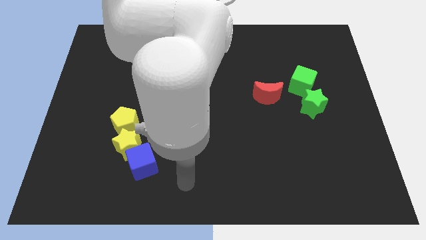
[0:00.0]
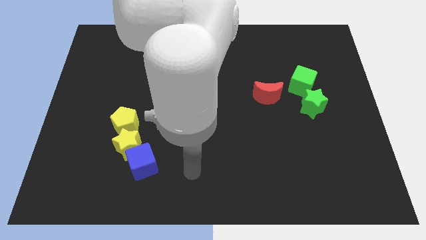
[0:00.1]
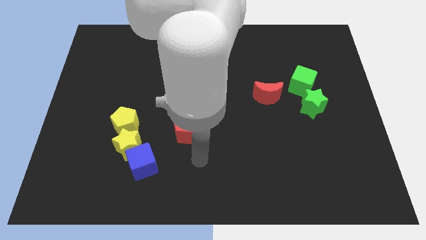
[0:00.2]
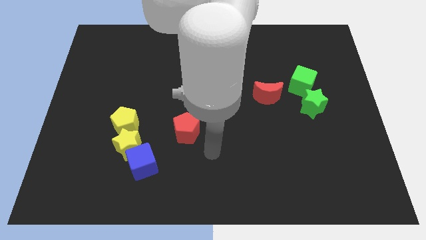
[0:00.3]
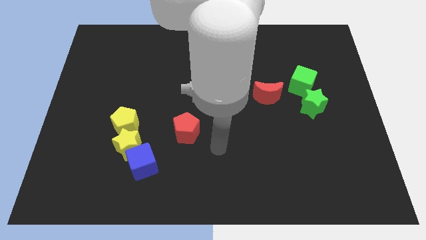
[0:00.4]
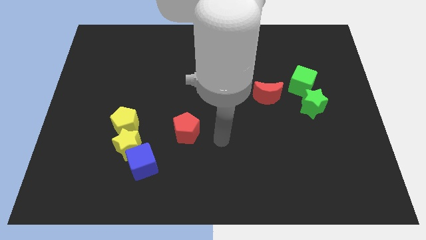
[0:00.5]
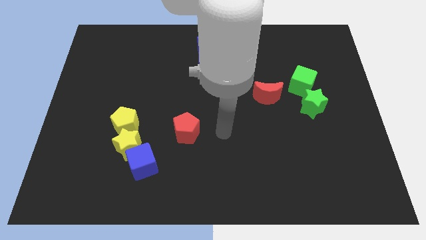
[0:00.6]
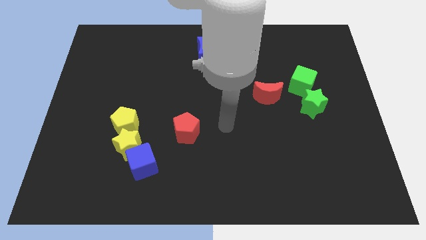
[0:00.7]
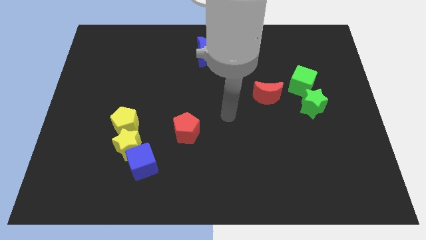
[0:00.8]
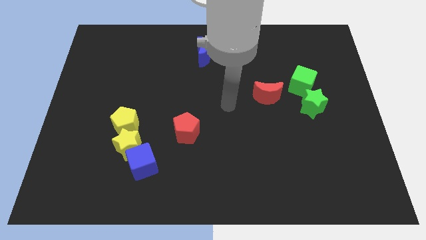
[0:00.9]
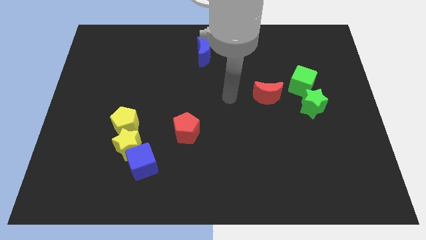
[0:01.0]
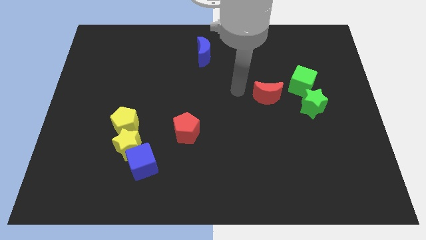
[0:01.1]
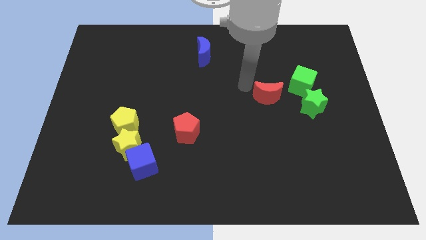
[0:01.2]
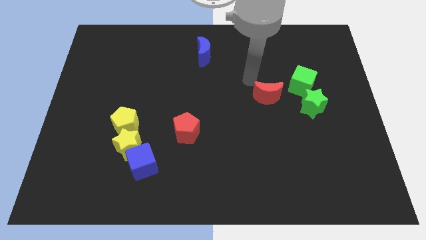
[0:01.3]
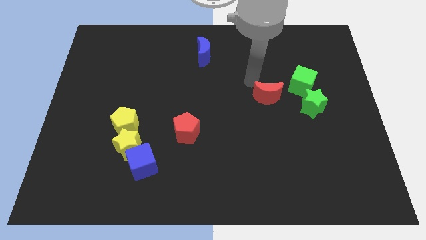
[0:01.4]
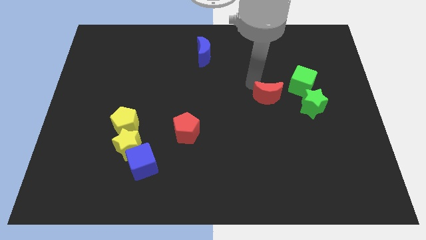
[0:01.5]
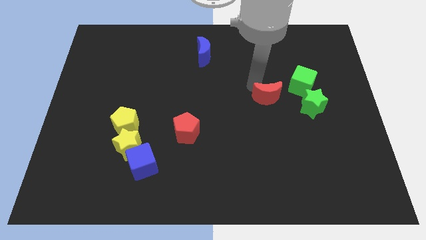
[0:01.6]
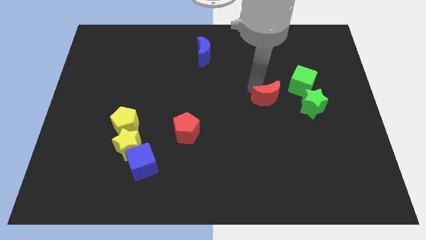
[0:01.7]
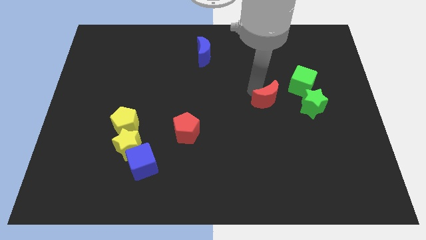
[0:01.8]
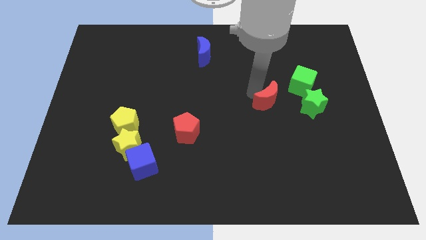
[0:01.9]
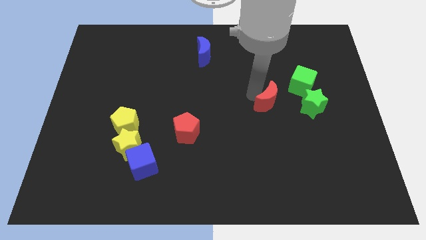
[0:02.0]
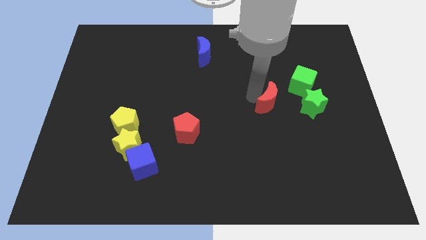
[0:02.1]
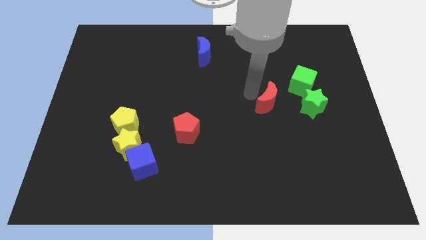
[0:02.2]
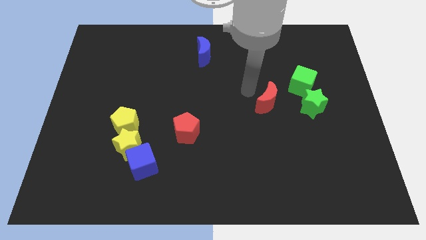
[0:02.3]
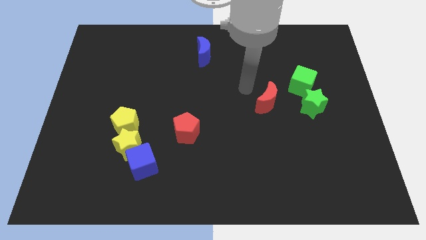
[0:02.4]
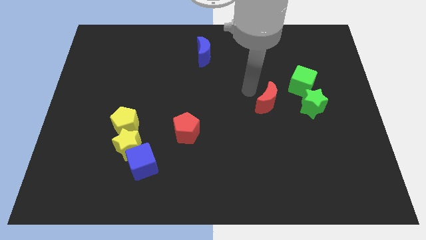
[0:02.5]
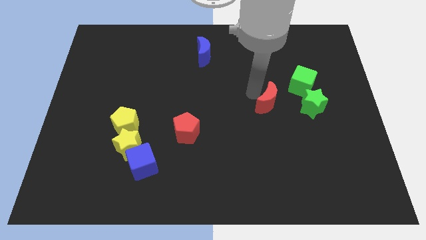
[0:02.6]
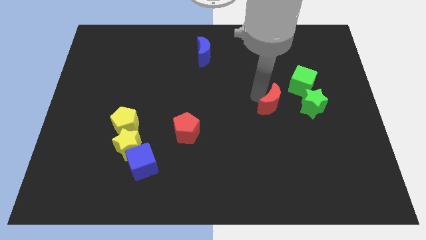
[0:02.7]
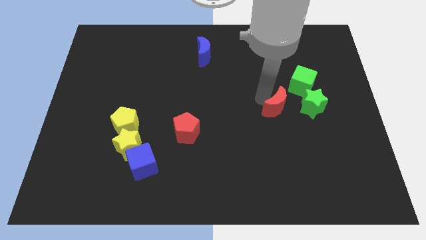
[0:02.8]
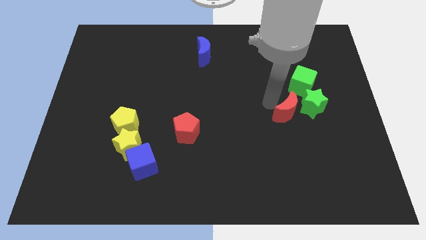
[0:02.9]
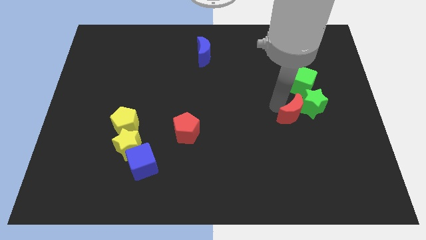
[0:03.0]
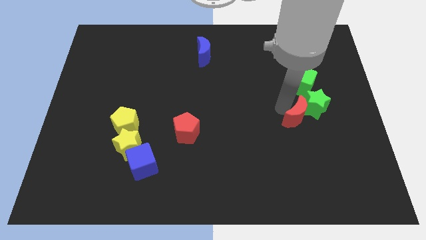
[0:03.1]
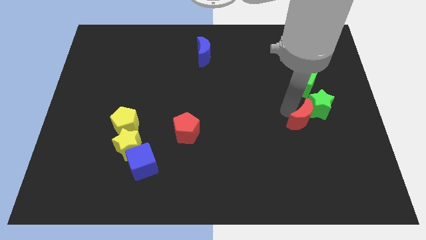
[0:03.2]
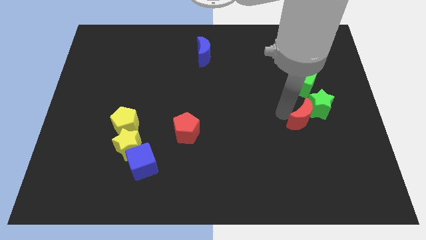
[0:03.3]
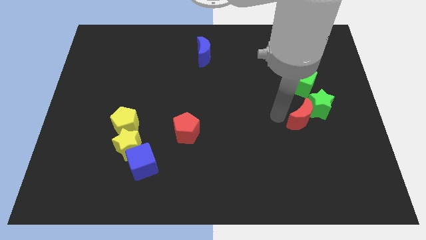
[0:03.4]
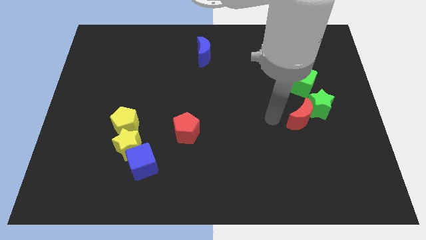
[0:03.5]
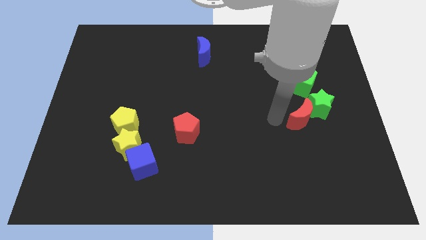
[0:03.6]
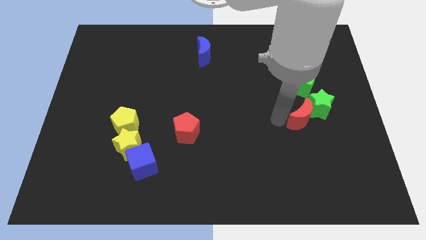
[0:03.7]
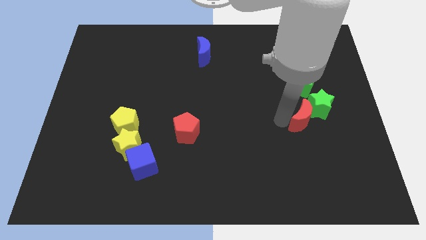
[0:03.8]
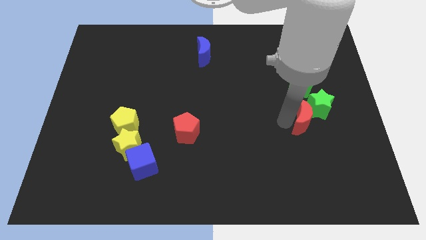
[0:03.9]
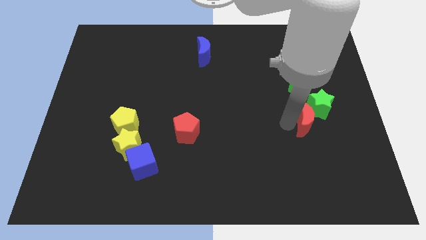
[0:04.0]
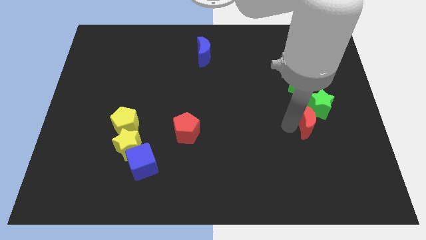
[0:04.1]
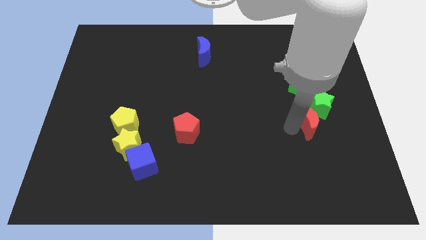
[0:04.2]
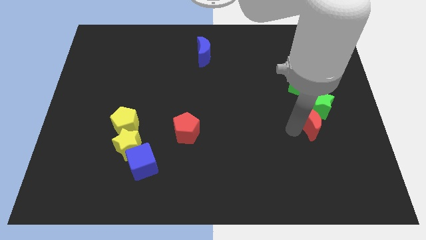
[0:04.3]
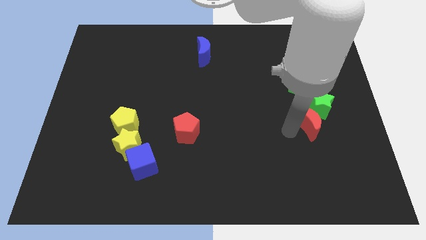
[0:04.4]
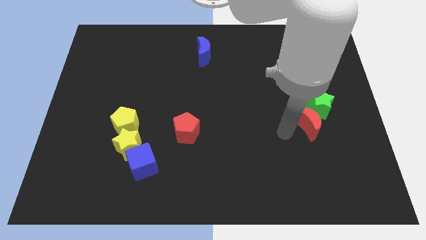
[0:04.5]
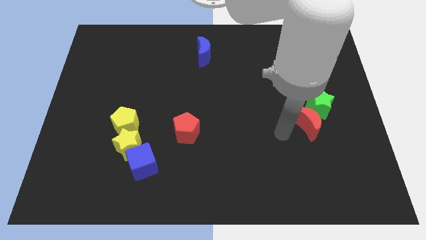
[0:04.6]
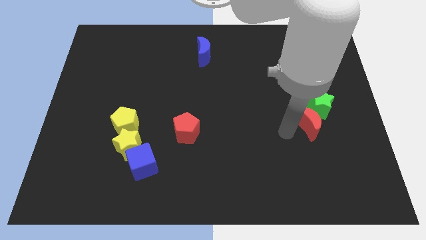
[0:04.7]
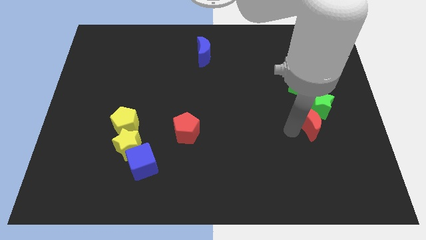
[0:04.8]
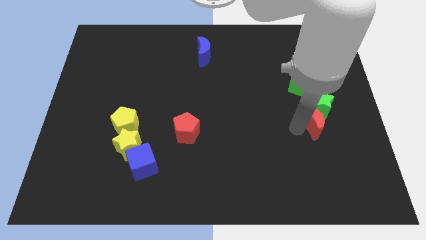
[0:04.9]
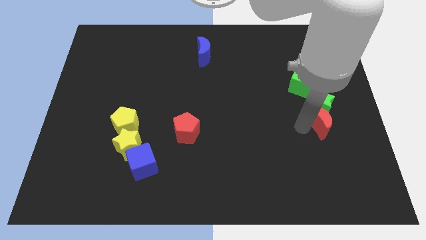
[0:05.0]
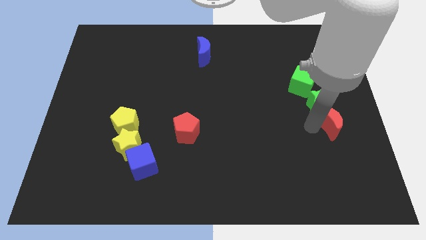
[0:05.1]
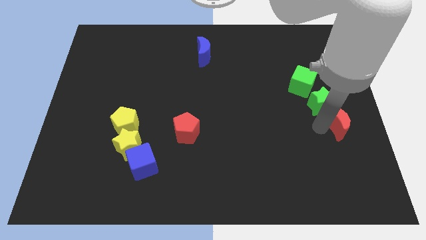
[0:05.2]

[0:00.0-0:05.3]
move the red moon to the right side

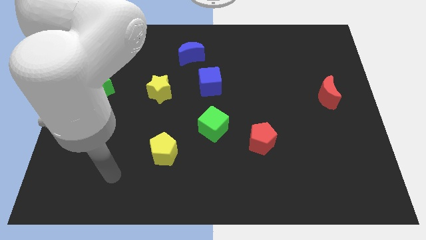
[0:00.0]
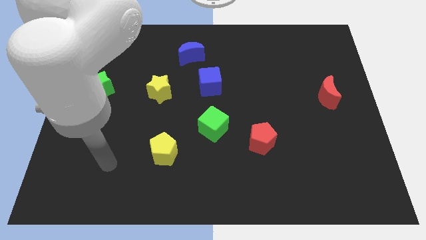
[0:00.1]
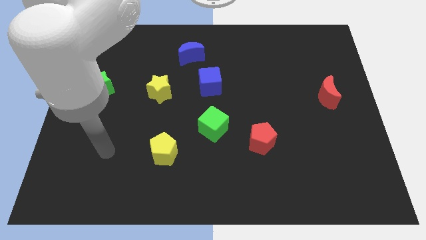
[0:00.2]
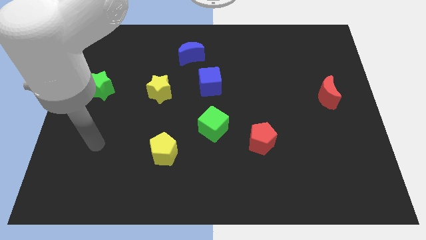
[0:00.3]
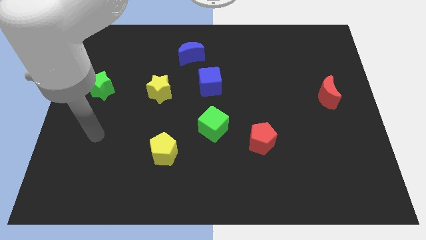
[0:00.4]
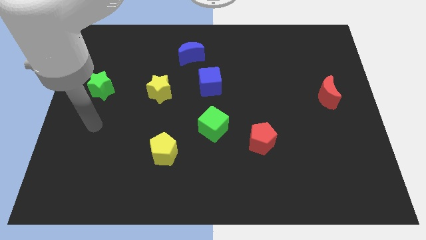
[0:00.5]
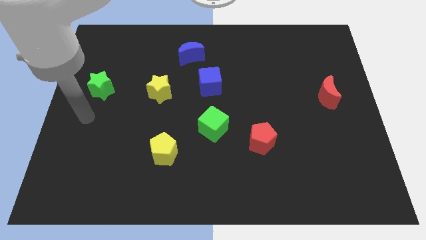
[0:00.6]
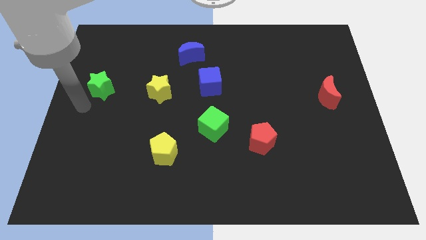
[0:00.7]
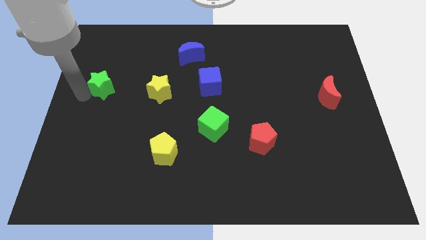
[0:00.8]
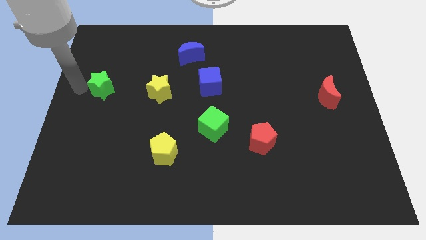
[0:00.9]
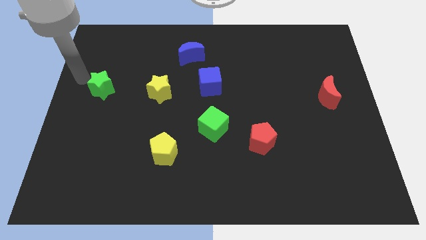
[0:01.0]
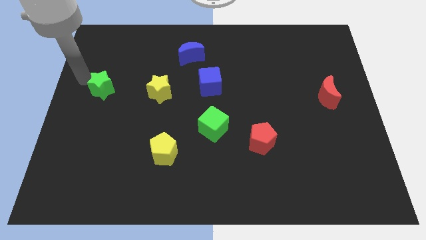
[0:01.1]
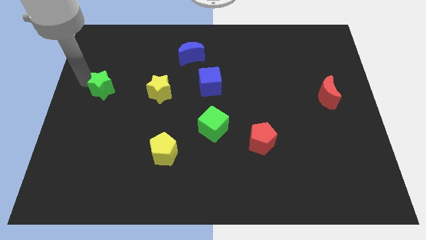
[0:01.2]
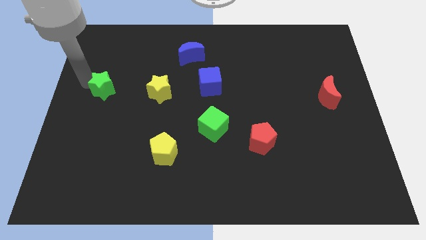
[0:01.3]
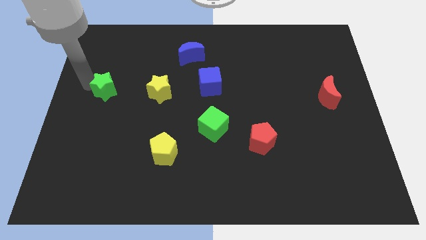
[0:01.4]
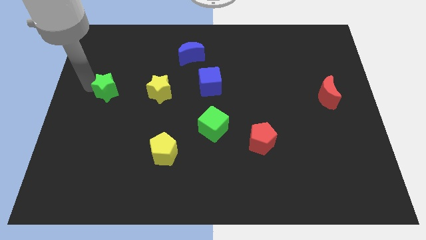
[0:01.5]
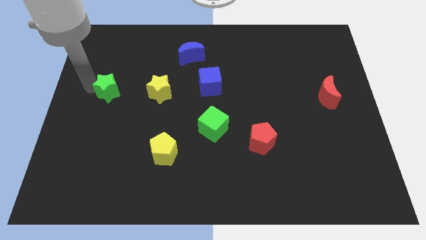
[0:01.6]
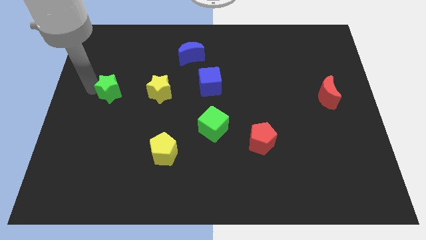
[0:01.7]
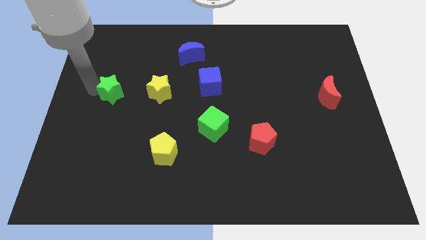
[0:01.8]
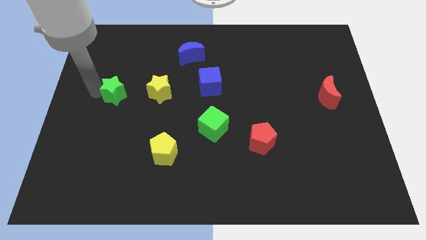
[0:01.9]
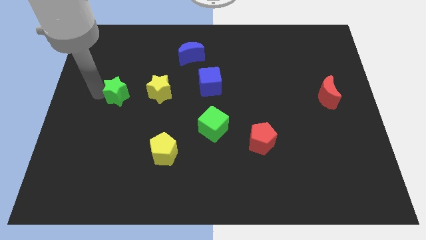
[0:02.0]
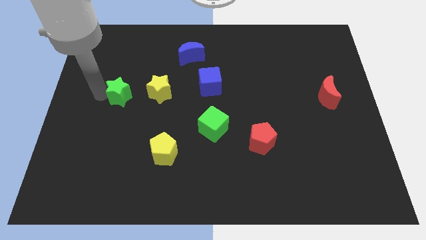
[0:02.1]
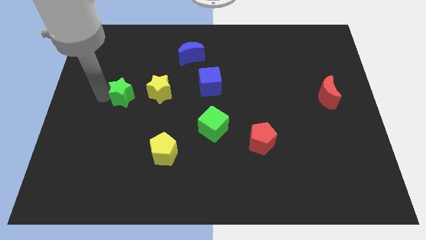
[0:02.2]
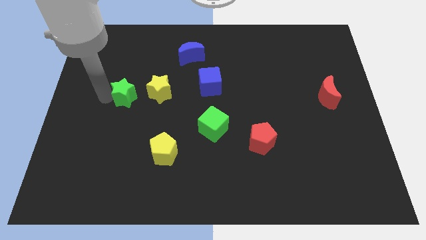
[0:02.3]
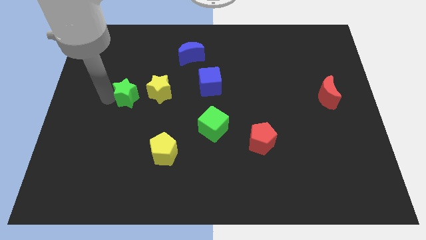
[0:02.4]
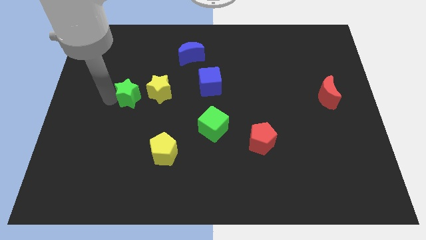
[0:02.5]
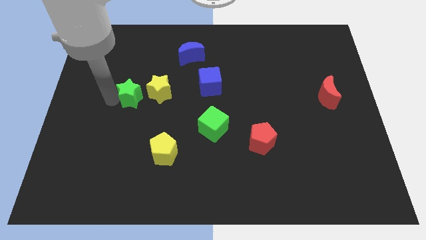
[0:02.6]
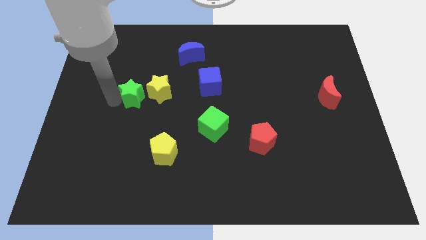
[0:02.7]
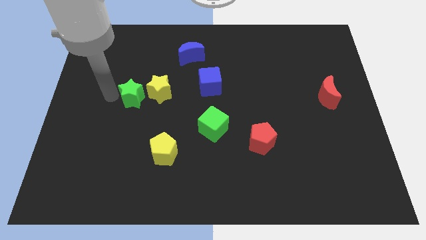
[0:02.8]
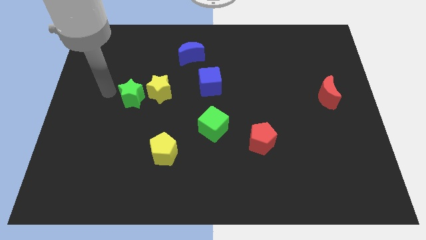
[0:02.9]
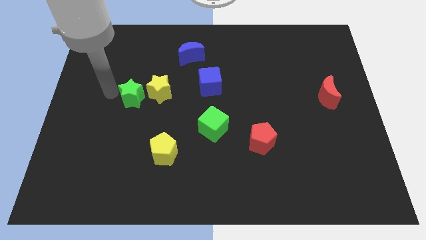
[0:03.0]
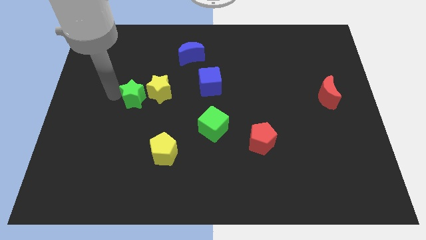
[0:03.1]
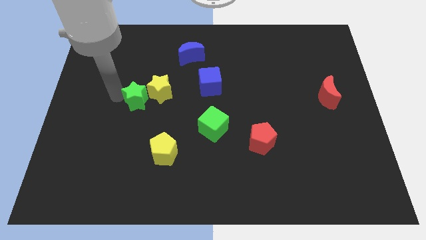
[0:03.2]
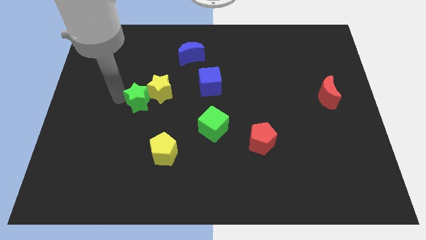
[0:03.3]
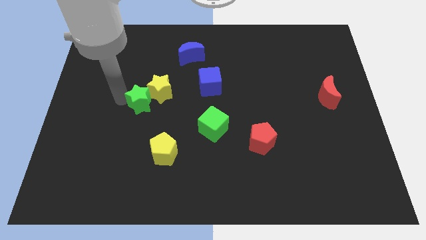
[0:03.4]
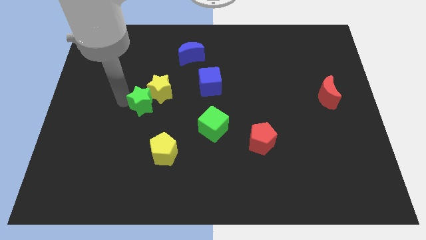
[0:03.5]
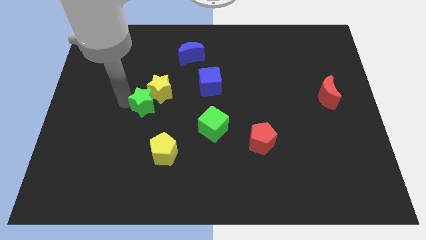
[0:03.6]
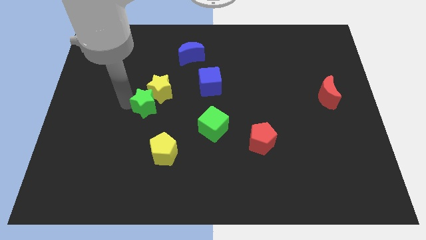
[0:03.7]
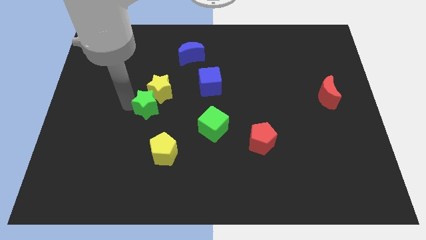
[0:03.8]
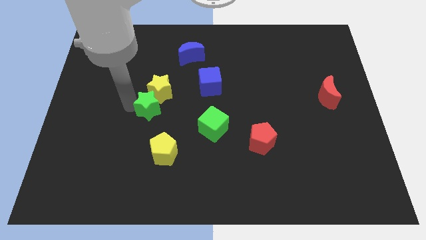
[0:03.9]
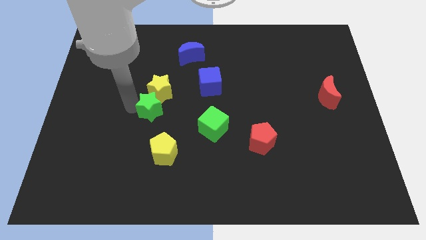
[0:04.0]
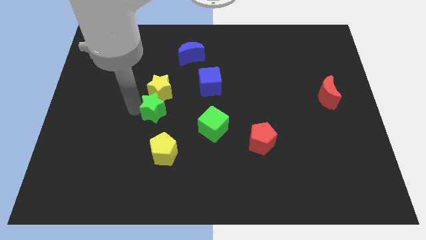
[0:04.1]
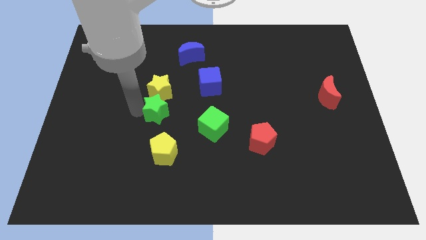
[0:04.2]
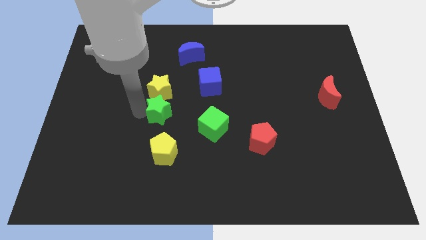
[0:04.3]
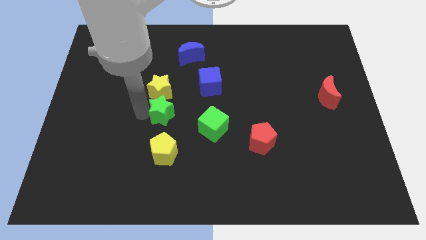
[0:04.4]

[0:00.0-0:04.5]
push the green star to the center
